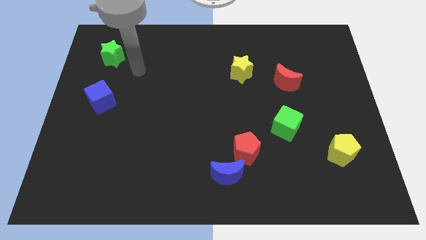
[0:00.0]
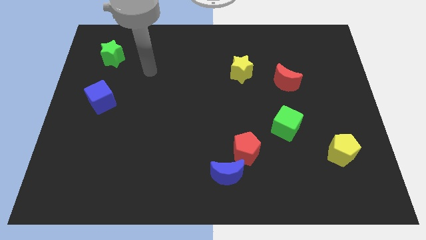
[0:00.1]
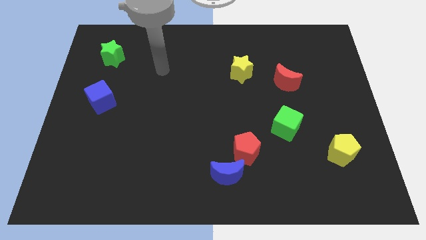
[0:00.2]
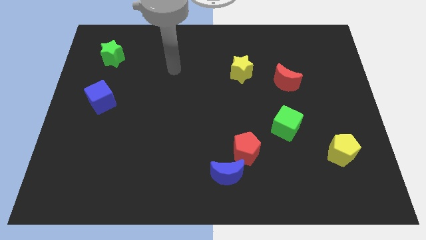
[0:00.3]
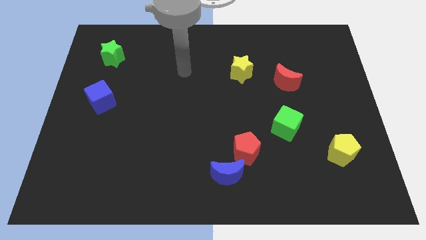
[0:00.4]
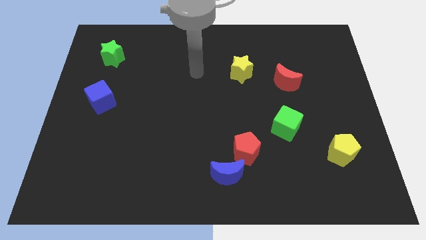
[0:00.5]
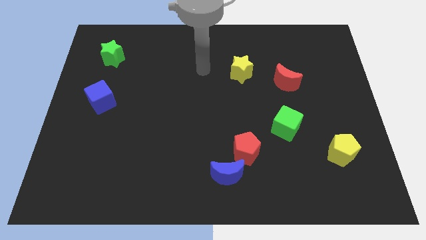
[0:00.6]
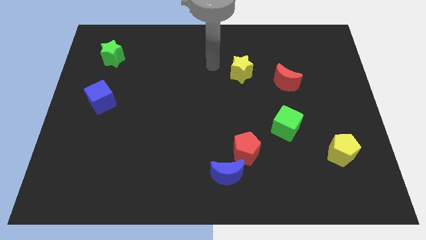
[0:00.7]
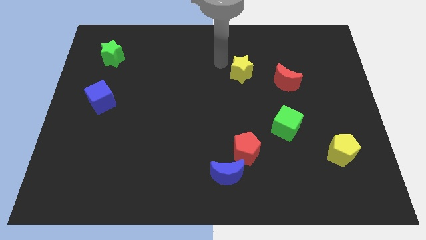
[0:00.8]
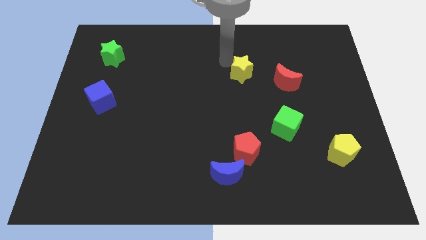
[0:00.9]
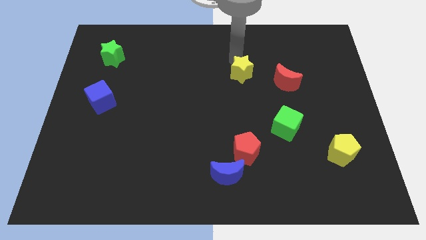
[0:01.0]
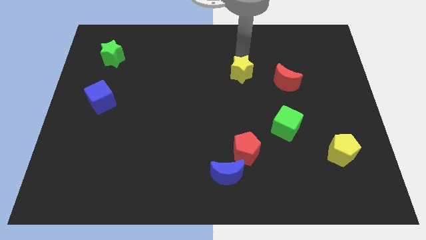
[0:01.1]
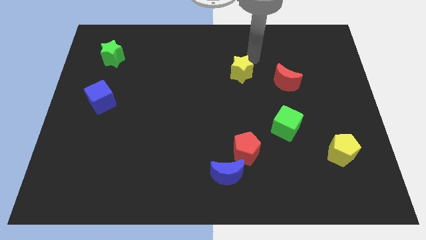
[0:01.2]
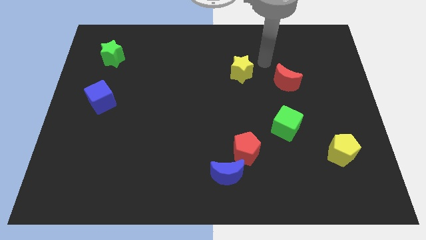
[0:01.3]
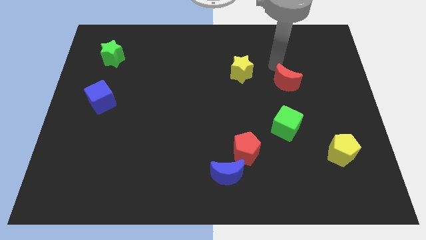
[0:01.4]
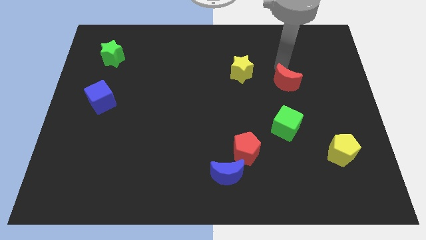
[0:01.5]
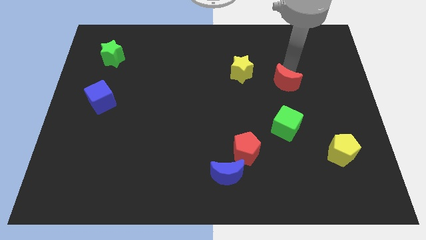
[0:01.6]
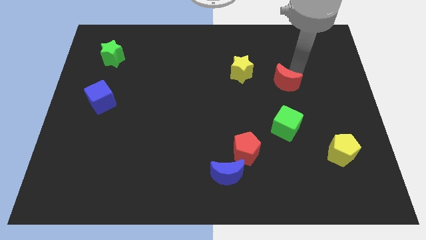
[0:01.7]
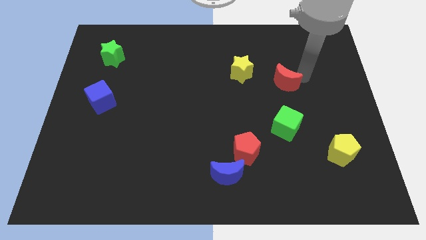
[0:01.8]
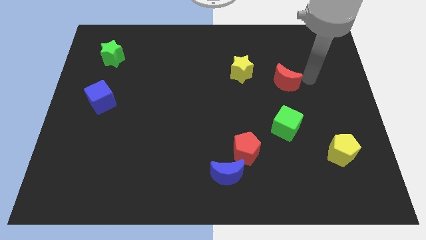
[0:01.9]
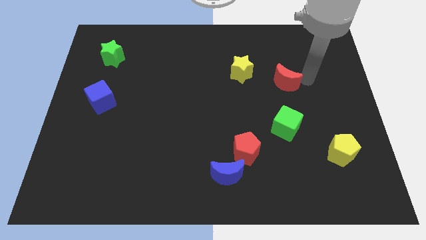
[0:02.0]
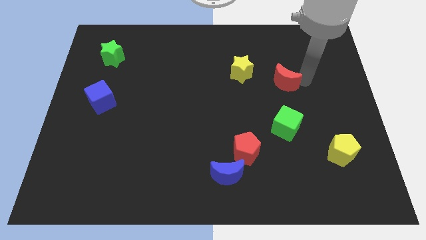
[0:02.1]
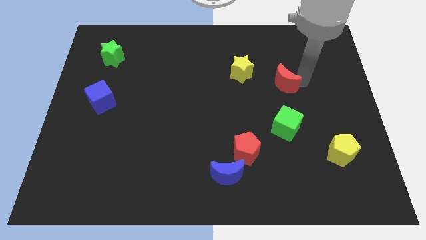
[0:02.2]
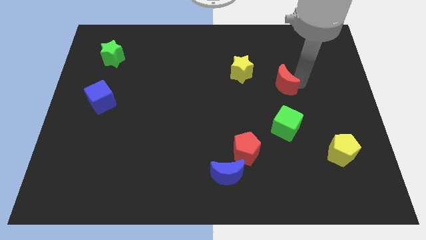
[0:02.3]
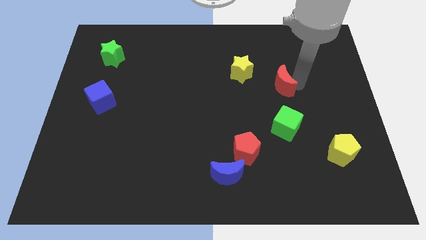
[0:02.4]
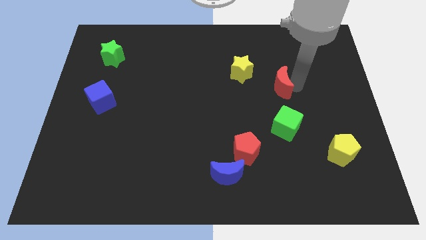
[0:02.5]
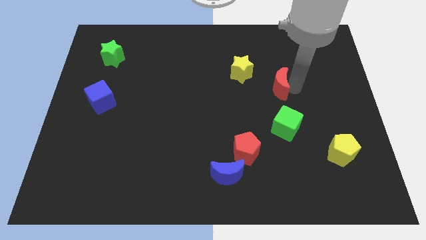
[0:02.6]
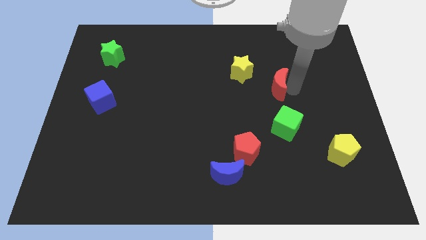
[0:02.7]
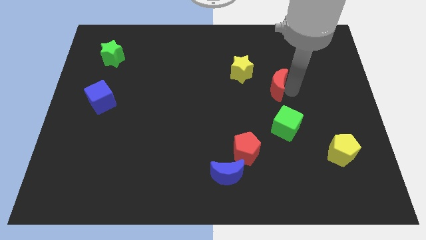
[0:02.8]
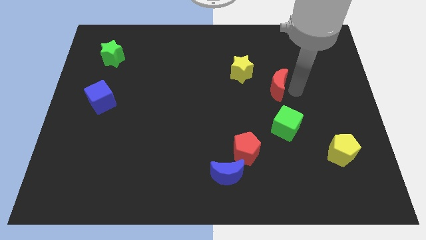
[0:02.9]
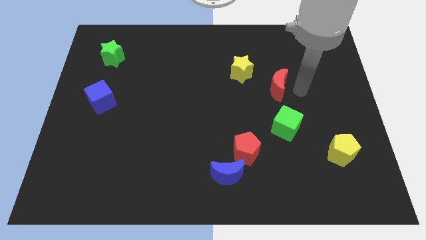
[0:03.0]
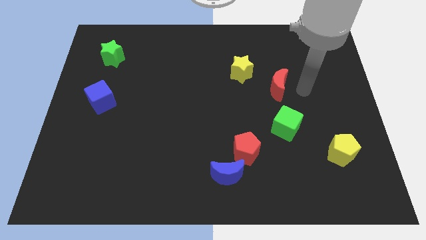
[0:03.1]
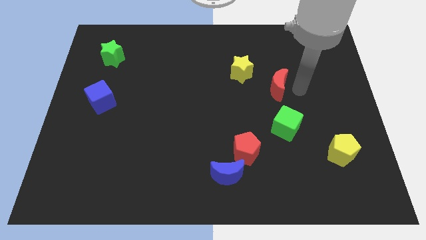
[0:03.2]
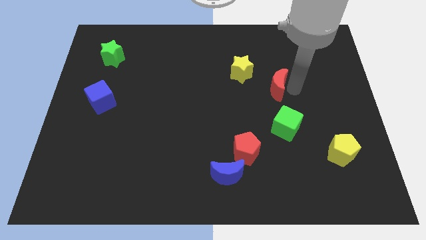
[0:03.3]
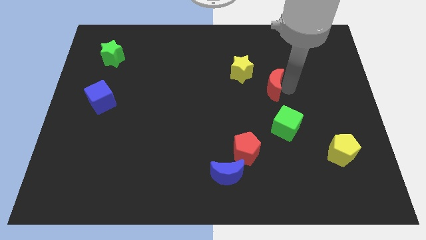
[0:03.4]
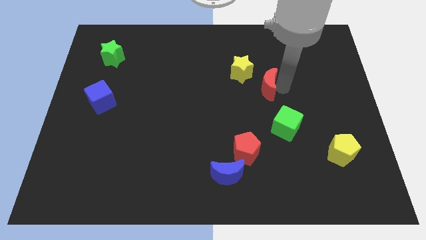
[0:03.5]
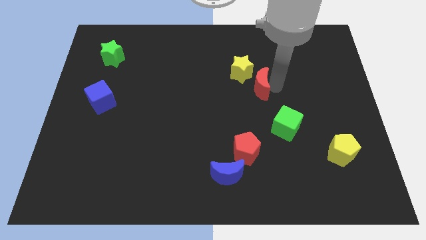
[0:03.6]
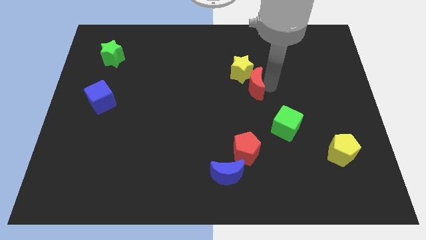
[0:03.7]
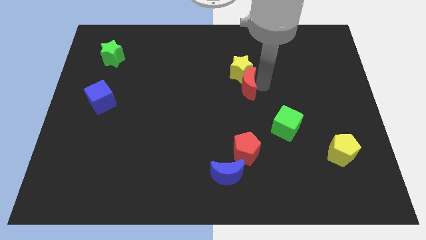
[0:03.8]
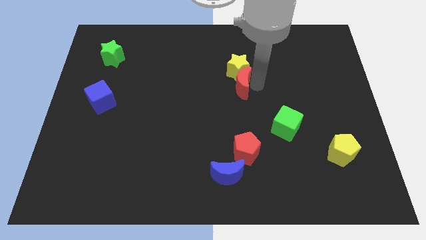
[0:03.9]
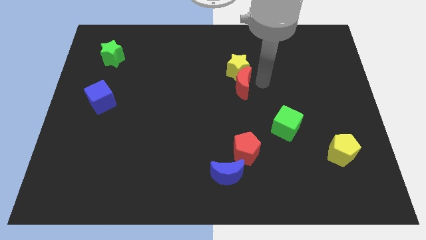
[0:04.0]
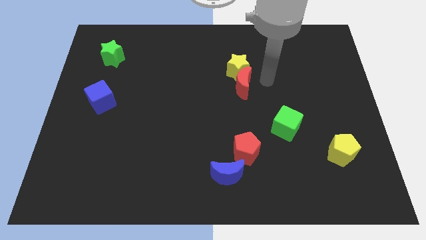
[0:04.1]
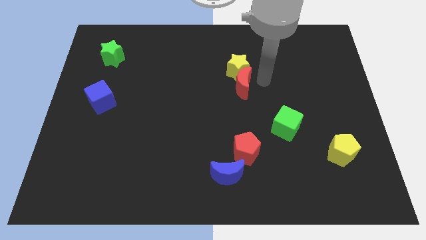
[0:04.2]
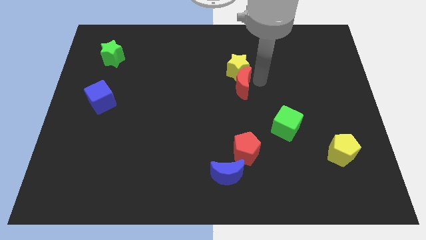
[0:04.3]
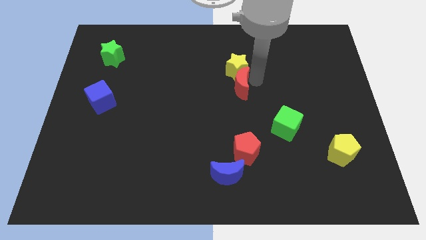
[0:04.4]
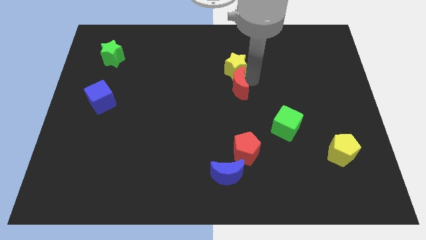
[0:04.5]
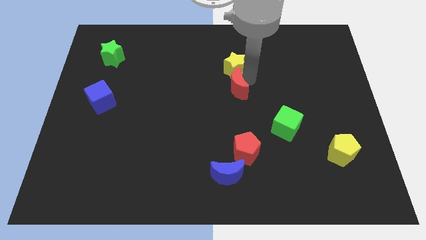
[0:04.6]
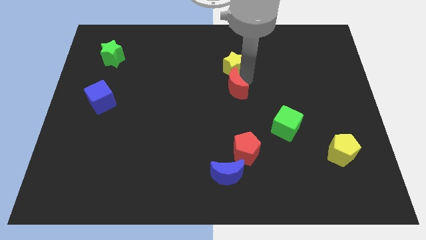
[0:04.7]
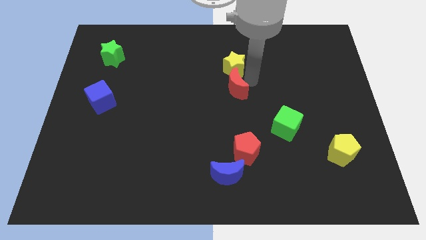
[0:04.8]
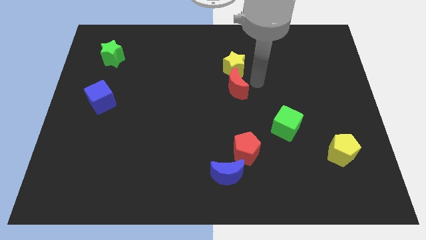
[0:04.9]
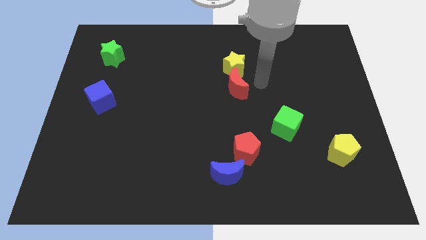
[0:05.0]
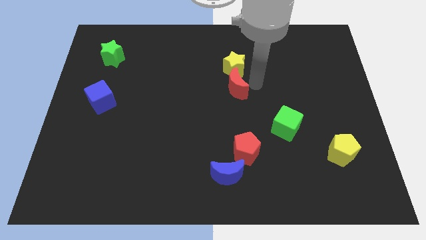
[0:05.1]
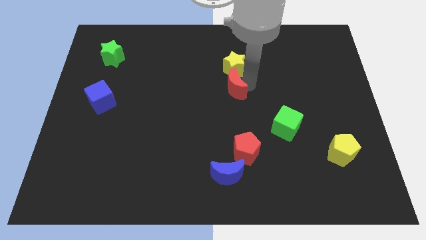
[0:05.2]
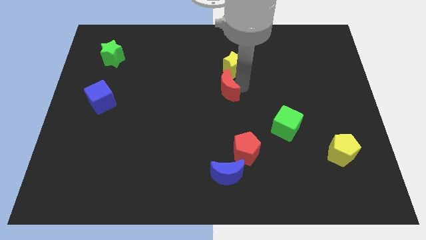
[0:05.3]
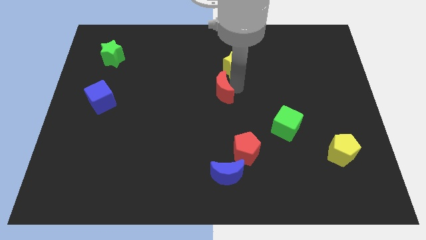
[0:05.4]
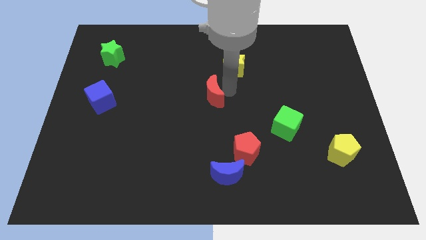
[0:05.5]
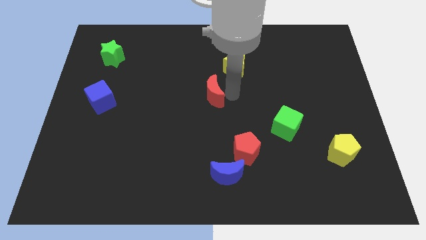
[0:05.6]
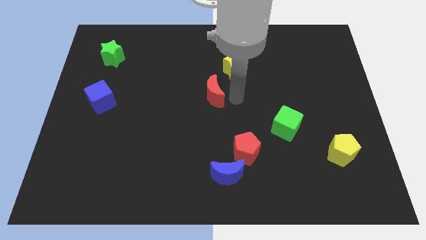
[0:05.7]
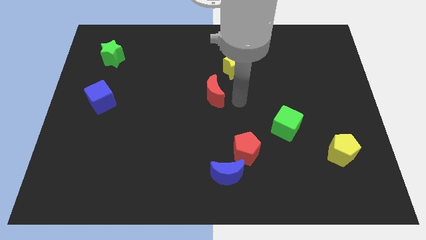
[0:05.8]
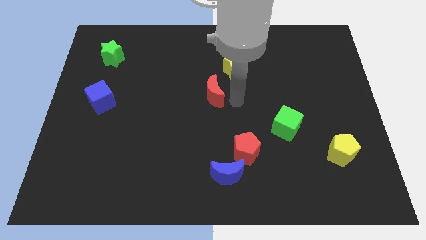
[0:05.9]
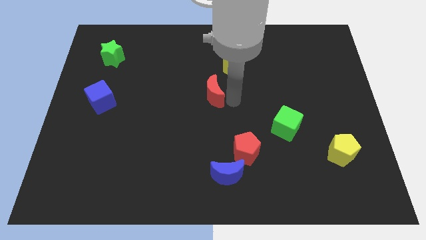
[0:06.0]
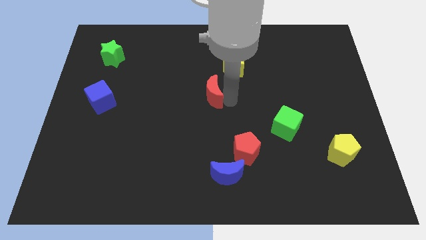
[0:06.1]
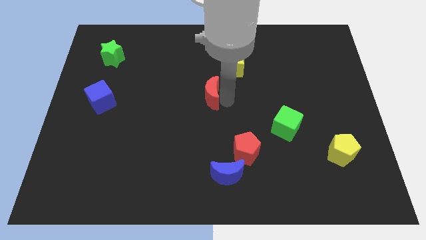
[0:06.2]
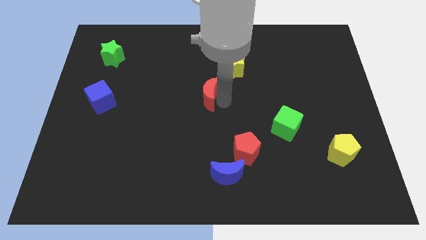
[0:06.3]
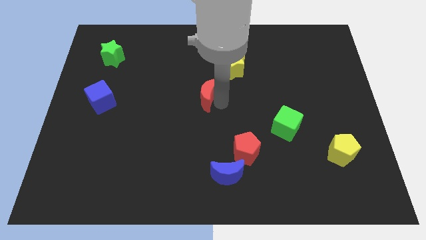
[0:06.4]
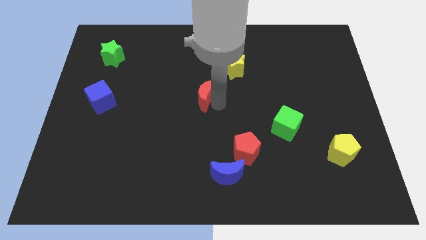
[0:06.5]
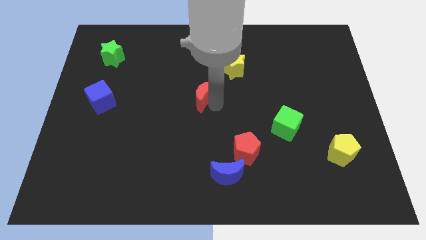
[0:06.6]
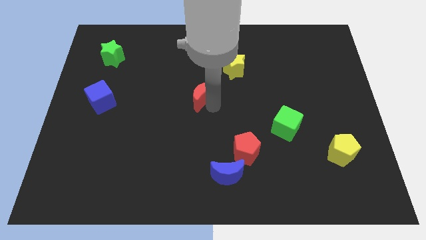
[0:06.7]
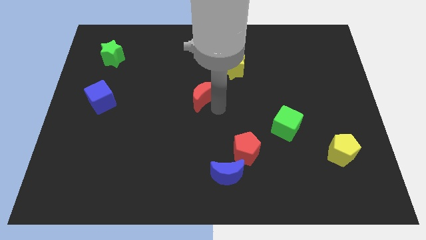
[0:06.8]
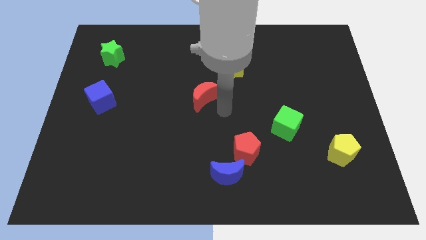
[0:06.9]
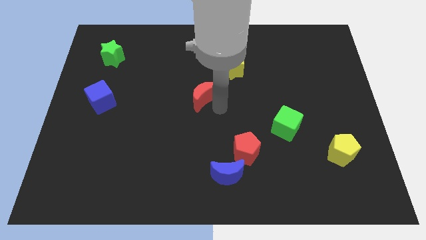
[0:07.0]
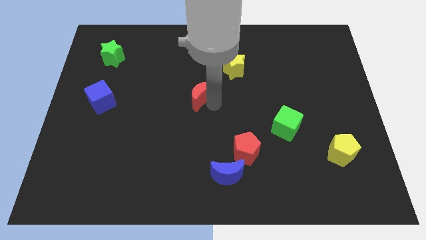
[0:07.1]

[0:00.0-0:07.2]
slide the red moon left

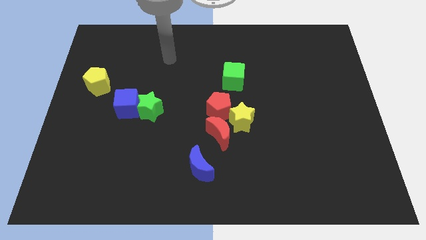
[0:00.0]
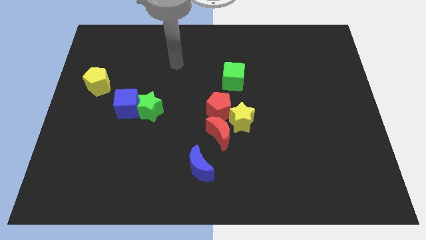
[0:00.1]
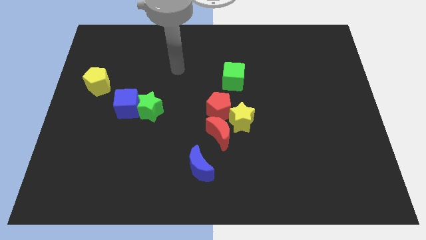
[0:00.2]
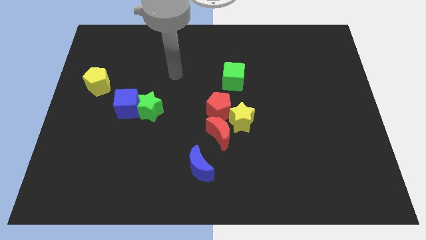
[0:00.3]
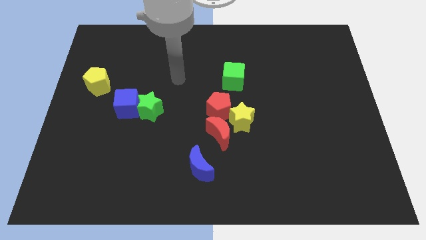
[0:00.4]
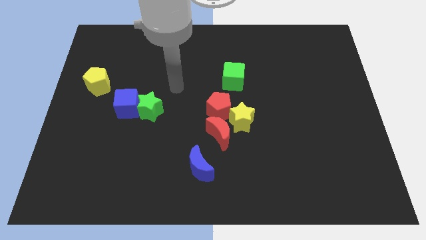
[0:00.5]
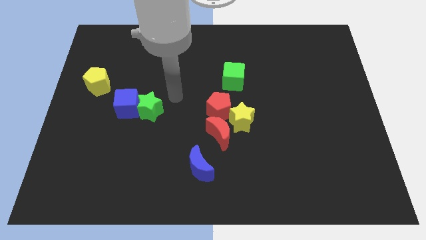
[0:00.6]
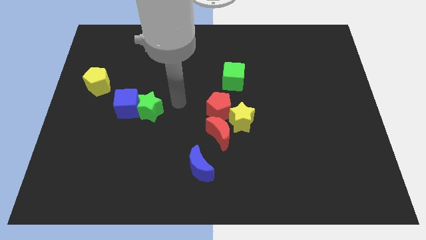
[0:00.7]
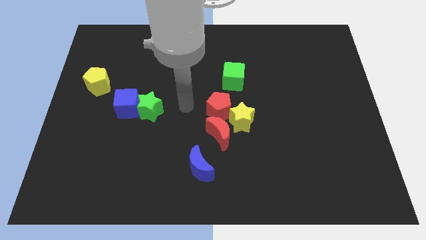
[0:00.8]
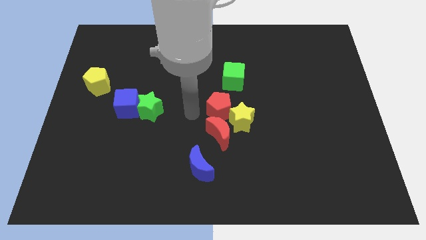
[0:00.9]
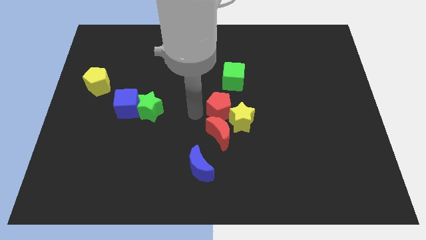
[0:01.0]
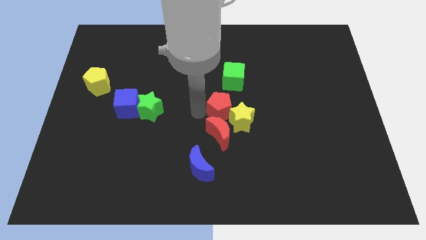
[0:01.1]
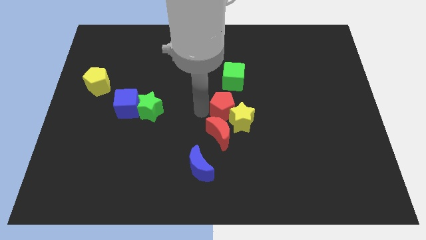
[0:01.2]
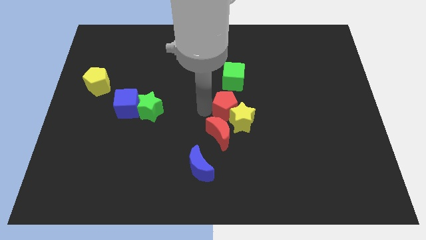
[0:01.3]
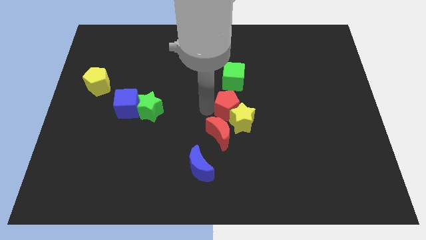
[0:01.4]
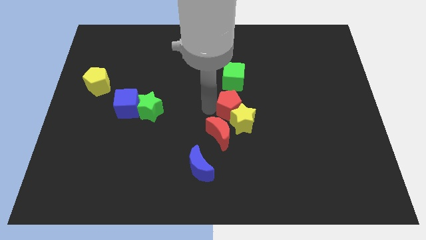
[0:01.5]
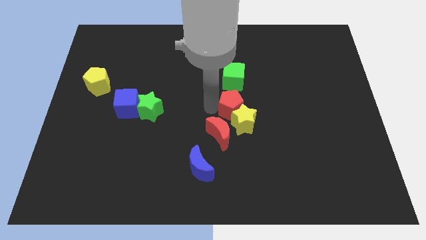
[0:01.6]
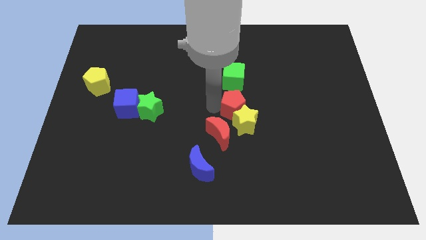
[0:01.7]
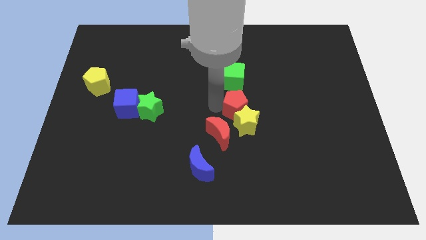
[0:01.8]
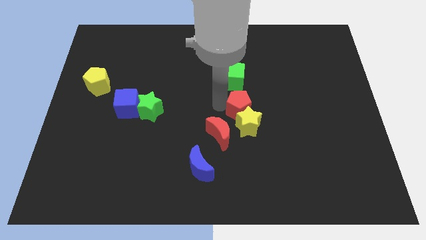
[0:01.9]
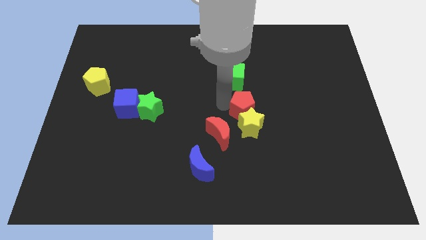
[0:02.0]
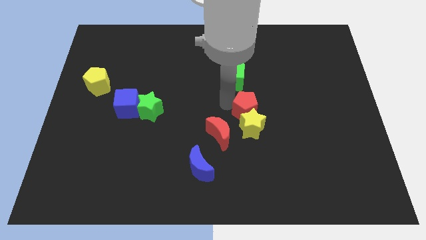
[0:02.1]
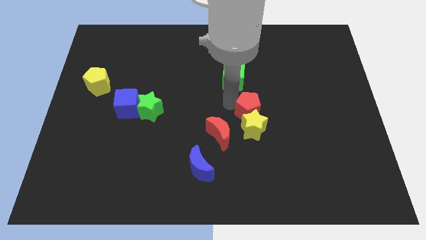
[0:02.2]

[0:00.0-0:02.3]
push the red pentagon right a little
